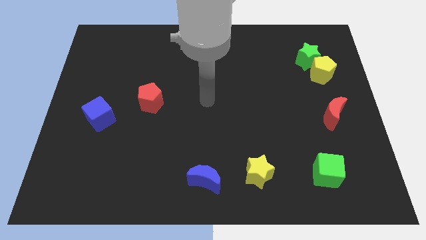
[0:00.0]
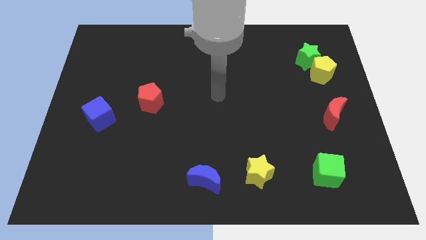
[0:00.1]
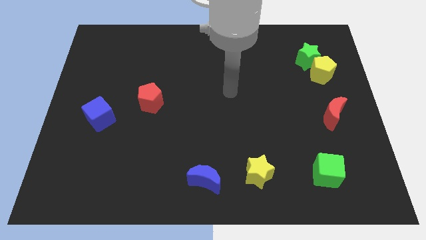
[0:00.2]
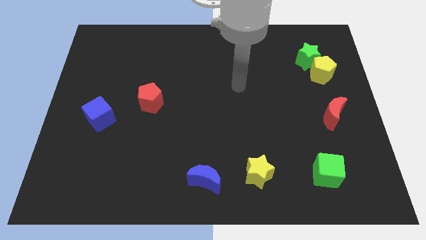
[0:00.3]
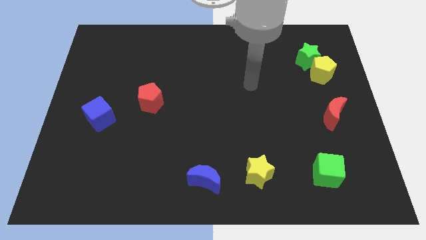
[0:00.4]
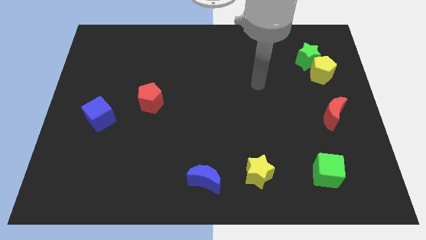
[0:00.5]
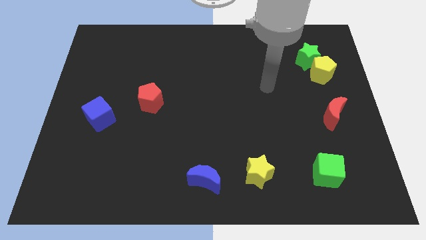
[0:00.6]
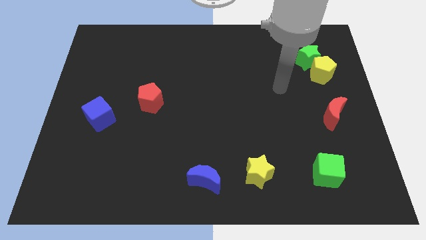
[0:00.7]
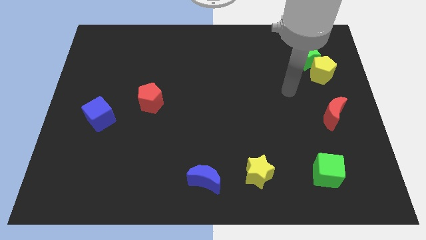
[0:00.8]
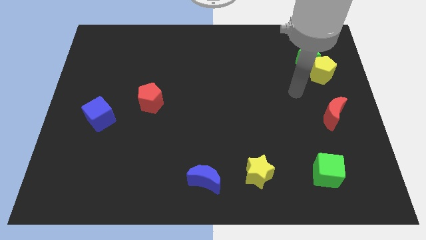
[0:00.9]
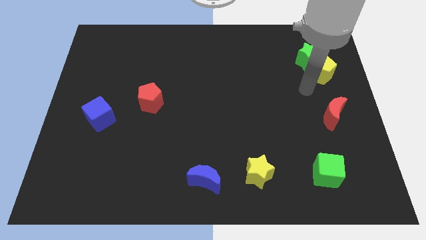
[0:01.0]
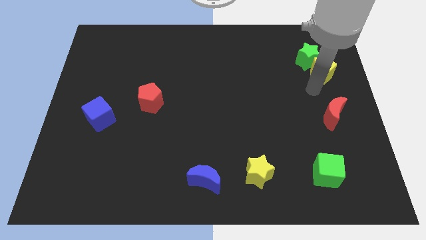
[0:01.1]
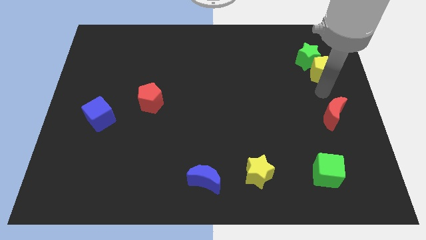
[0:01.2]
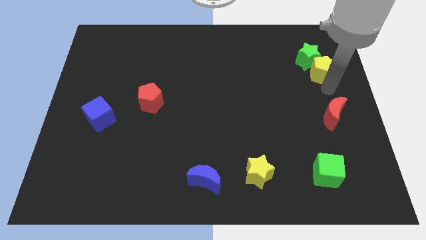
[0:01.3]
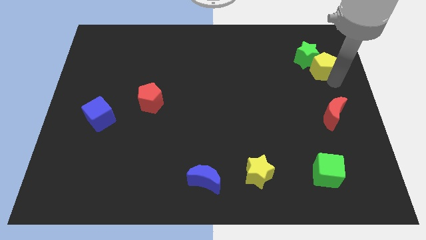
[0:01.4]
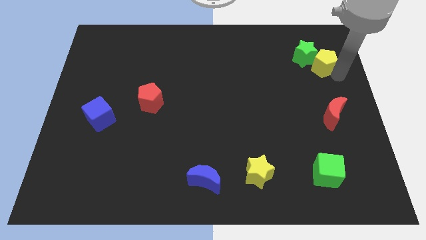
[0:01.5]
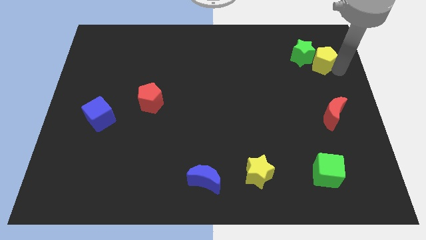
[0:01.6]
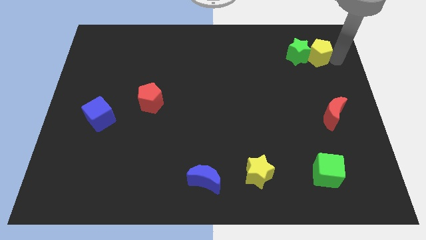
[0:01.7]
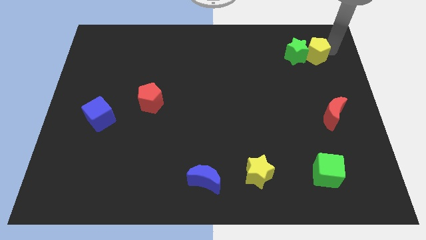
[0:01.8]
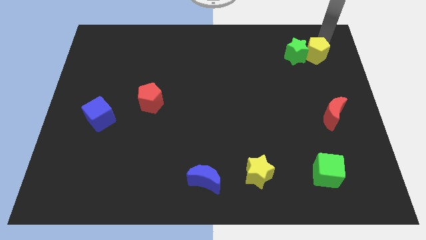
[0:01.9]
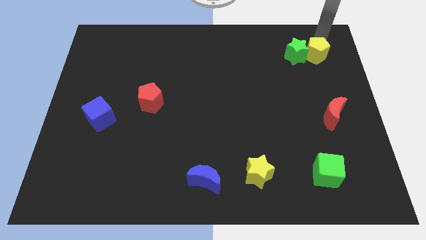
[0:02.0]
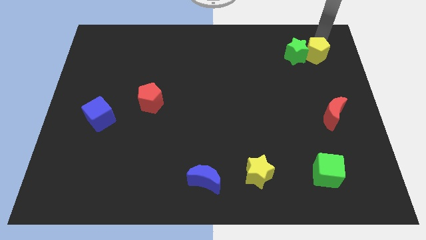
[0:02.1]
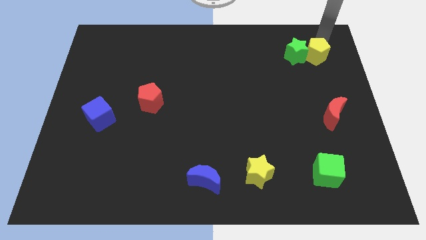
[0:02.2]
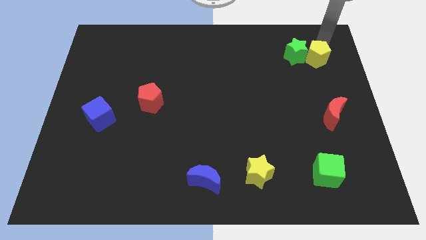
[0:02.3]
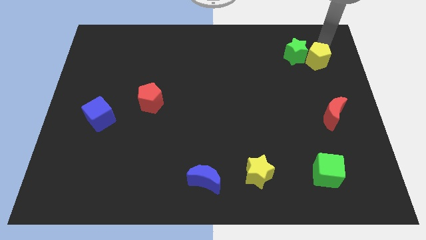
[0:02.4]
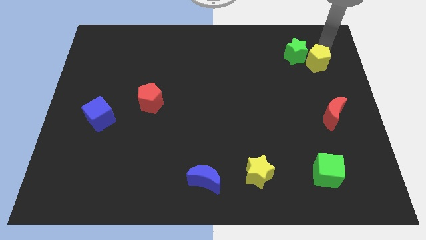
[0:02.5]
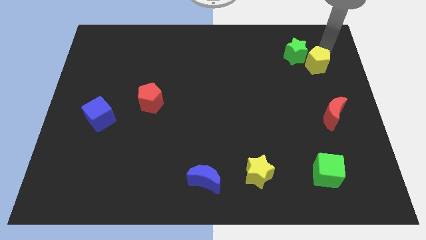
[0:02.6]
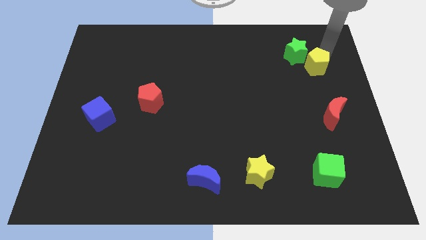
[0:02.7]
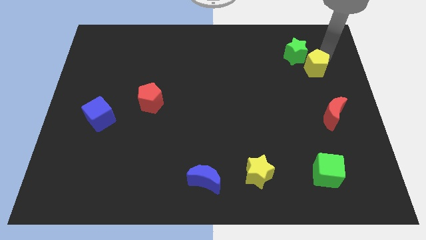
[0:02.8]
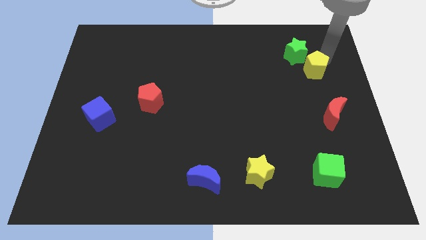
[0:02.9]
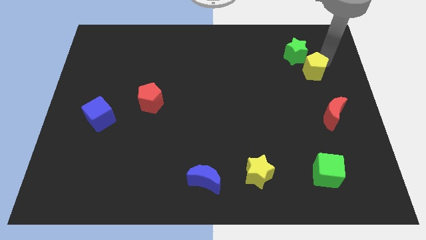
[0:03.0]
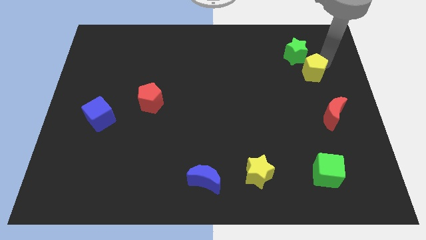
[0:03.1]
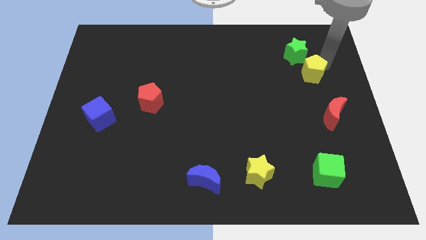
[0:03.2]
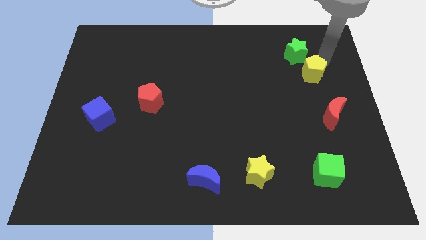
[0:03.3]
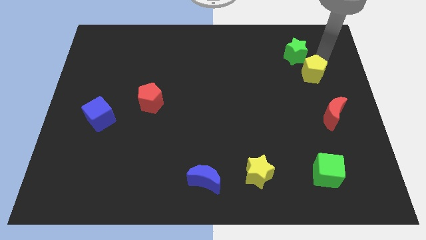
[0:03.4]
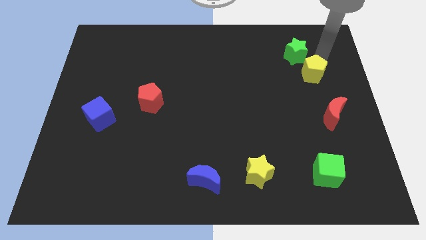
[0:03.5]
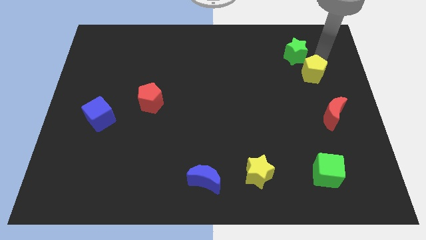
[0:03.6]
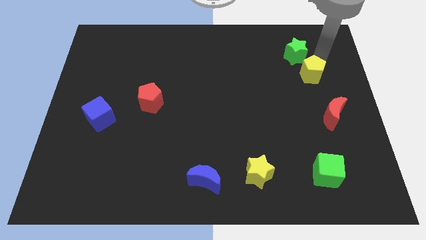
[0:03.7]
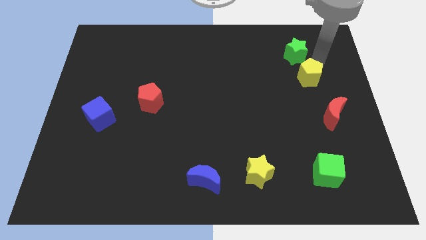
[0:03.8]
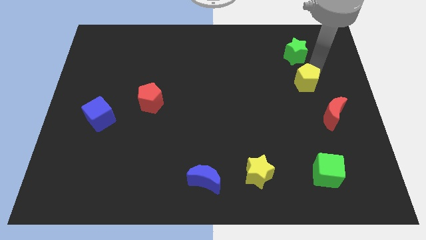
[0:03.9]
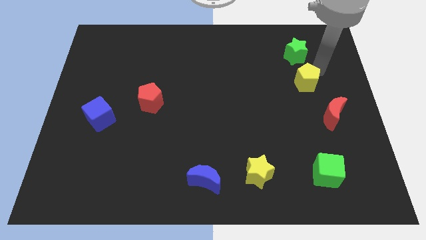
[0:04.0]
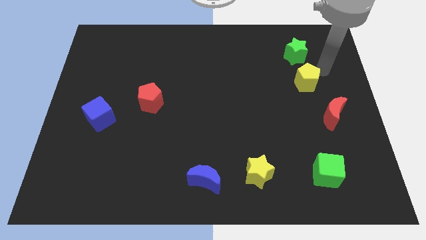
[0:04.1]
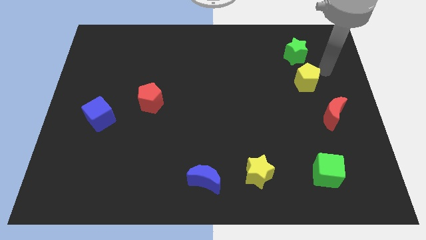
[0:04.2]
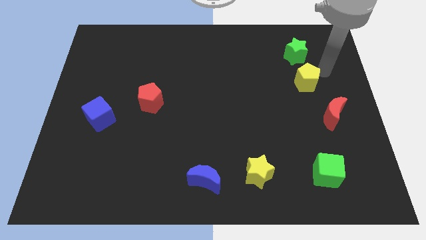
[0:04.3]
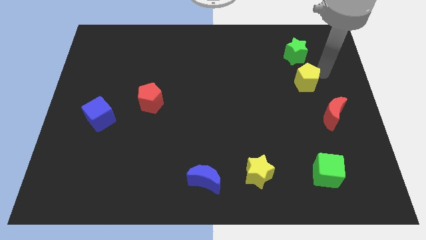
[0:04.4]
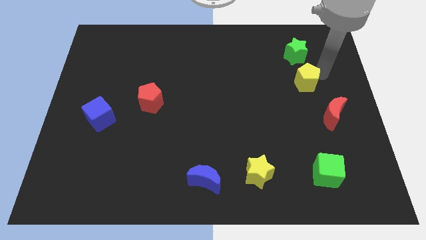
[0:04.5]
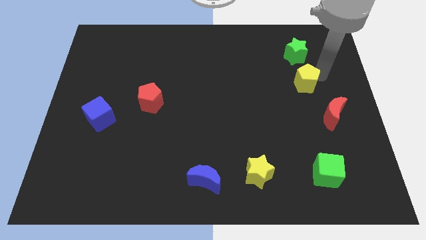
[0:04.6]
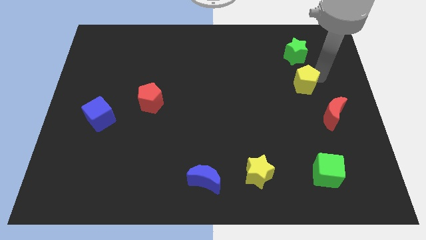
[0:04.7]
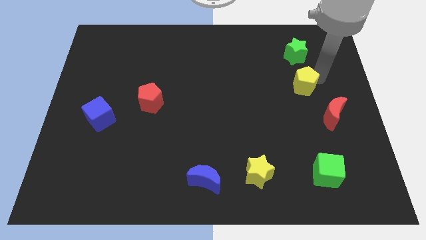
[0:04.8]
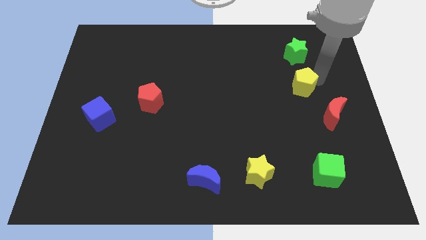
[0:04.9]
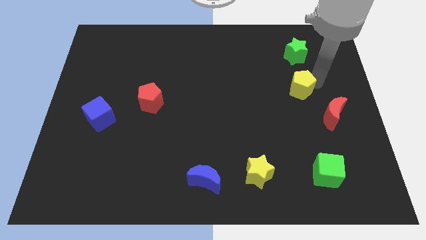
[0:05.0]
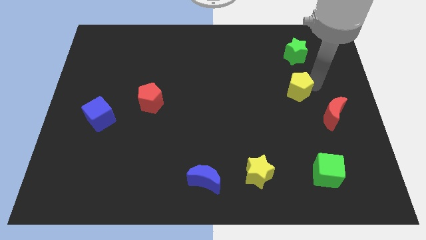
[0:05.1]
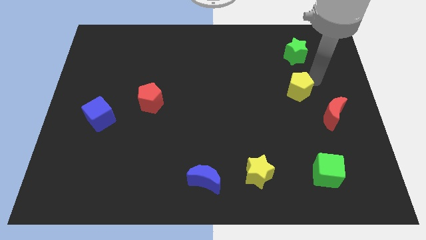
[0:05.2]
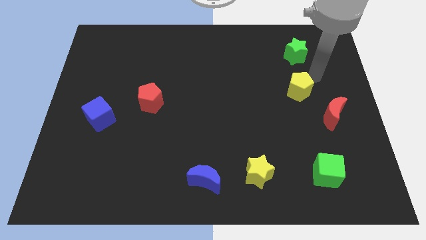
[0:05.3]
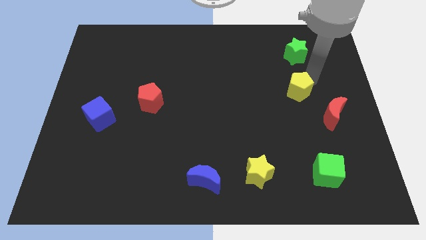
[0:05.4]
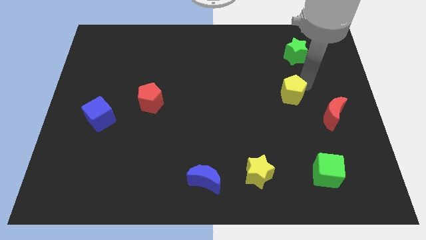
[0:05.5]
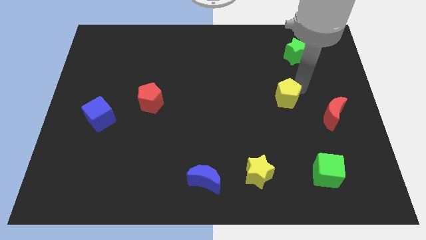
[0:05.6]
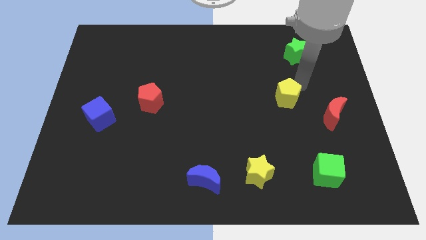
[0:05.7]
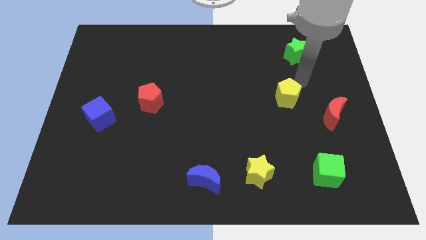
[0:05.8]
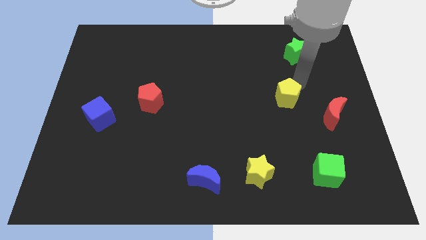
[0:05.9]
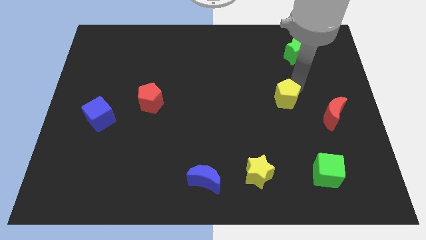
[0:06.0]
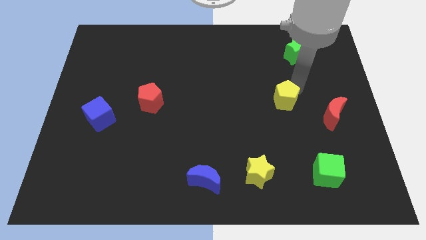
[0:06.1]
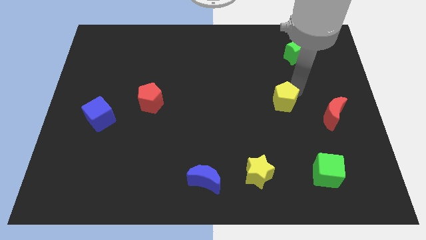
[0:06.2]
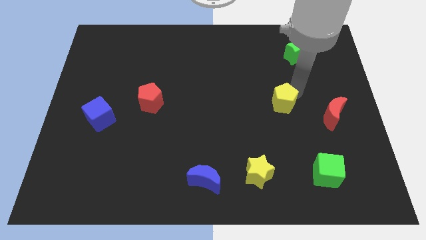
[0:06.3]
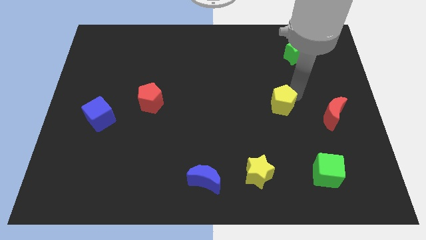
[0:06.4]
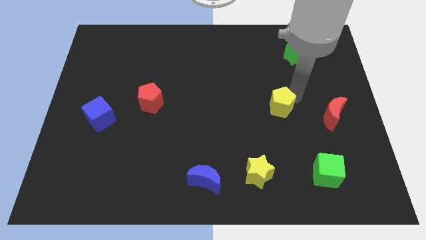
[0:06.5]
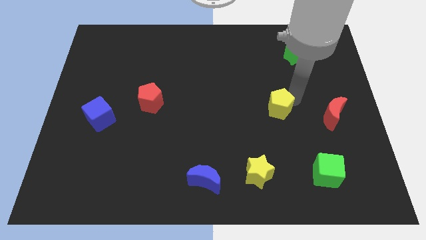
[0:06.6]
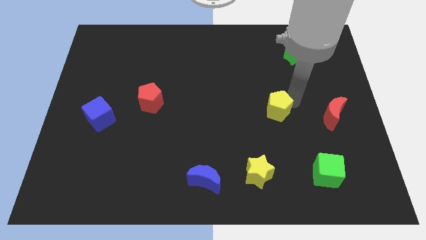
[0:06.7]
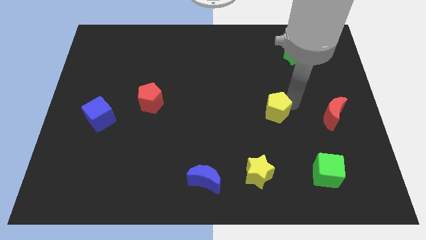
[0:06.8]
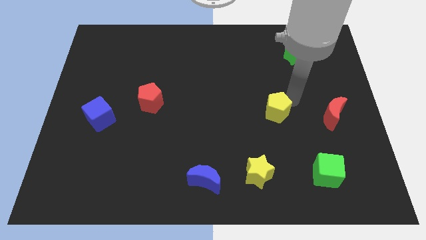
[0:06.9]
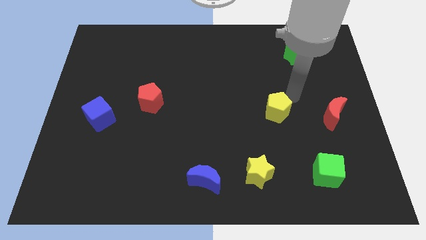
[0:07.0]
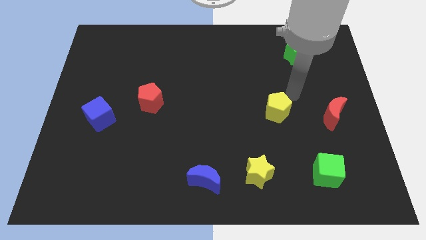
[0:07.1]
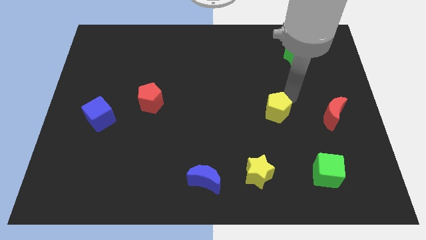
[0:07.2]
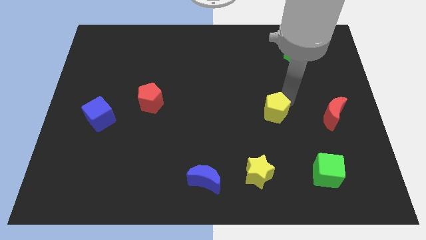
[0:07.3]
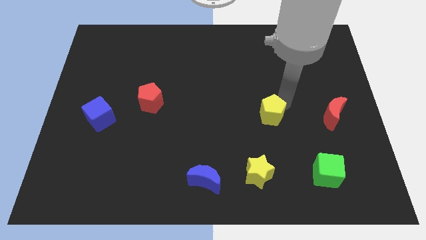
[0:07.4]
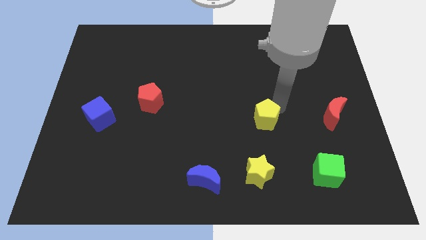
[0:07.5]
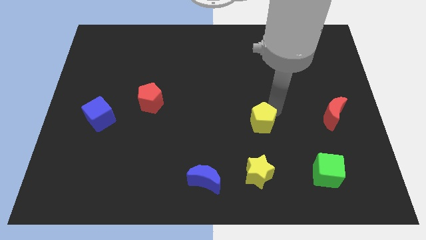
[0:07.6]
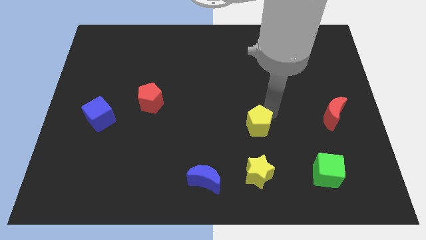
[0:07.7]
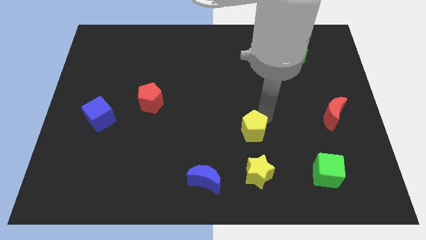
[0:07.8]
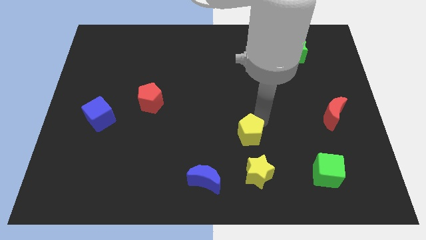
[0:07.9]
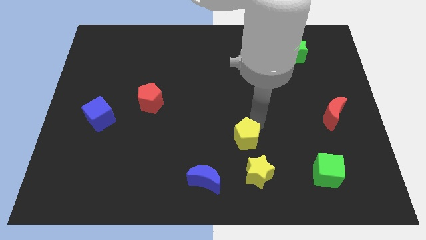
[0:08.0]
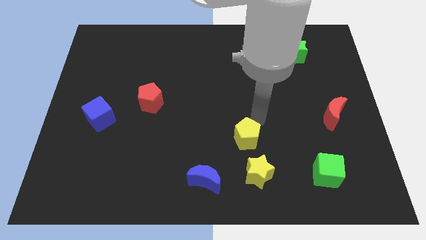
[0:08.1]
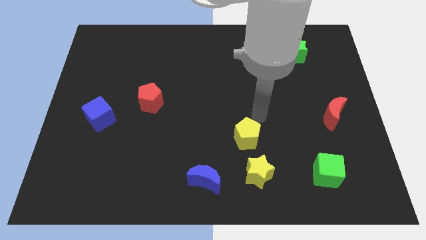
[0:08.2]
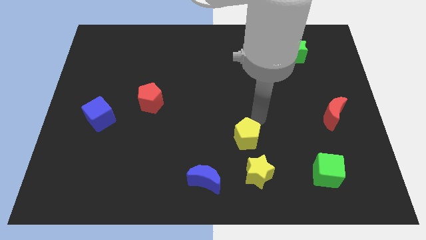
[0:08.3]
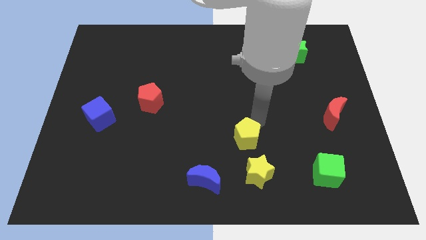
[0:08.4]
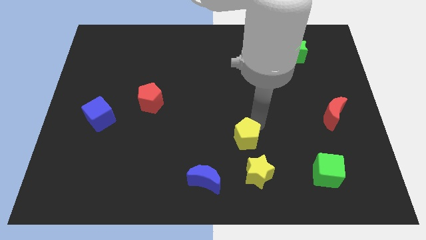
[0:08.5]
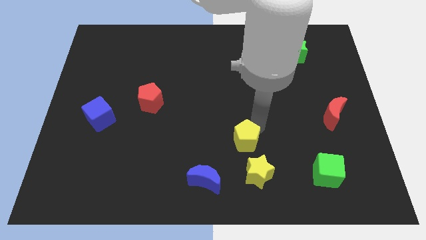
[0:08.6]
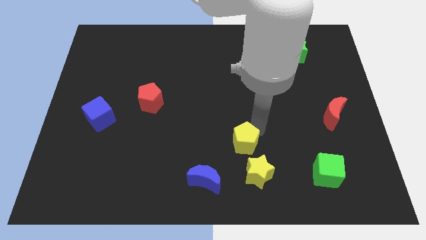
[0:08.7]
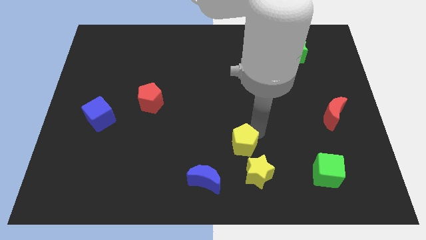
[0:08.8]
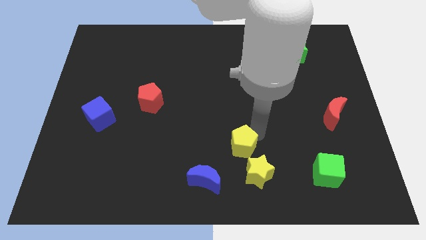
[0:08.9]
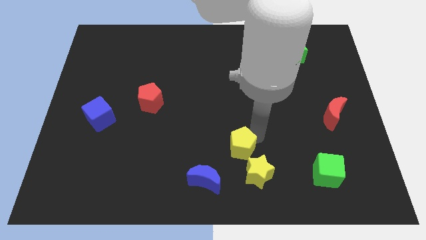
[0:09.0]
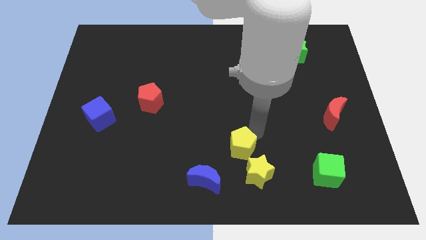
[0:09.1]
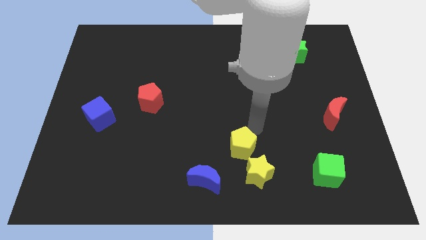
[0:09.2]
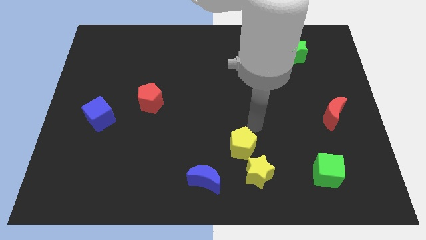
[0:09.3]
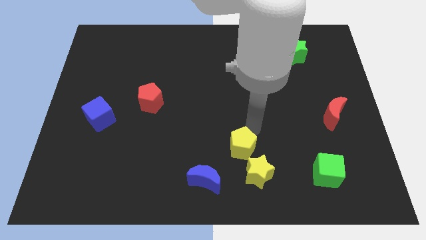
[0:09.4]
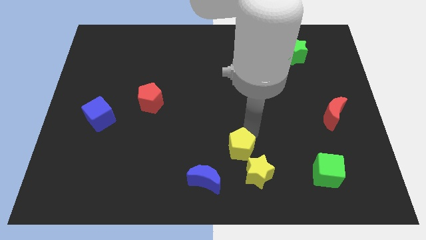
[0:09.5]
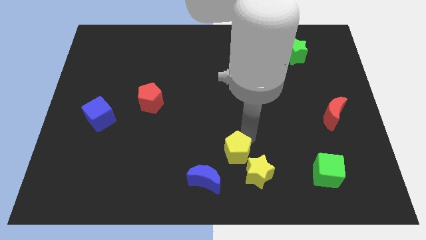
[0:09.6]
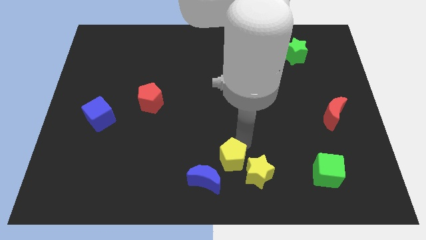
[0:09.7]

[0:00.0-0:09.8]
slide the yellow pentagon to the bottom
